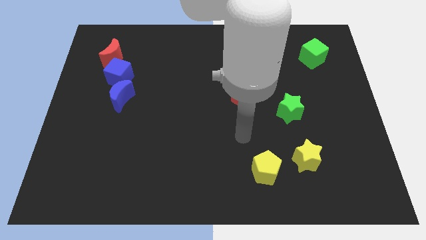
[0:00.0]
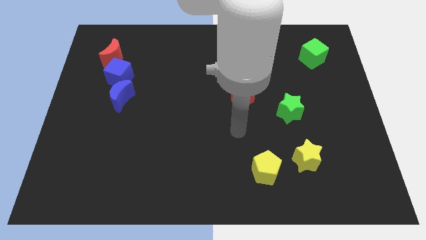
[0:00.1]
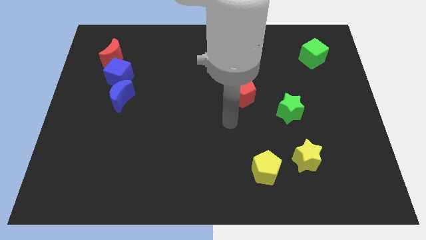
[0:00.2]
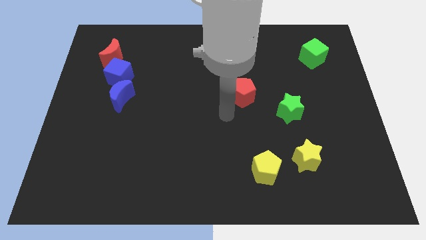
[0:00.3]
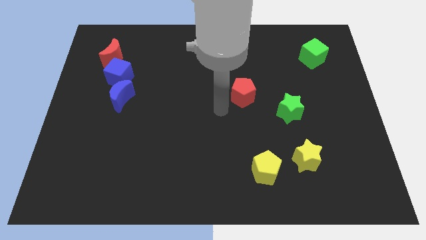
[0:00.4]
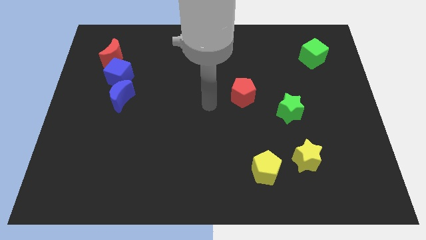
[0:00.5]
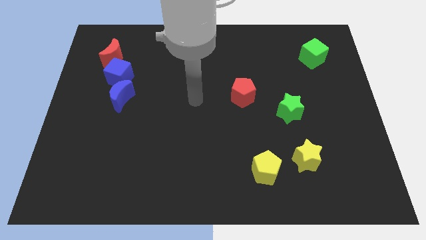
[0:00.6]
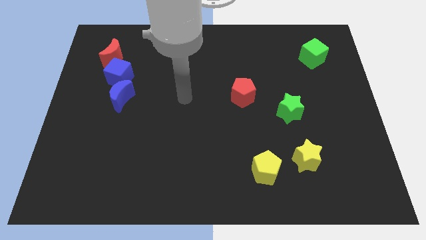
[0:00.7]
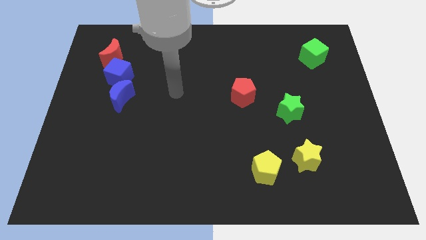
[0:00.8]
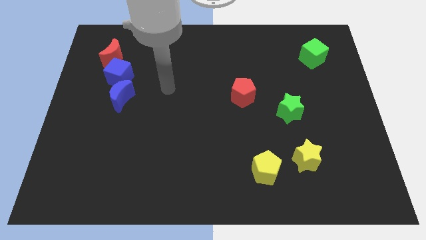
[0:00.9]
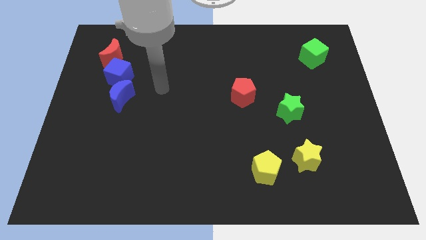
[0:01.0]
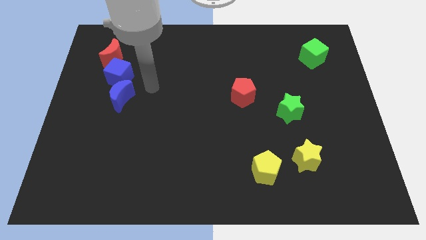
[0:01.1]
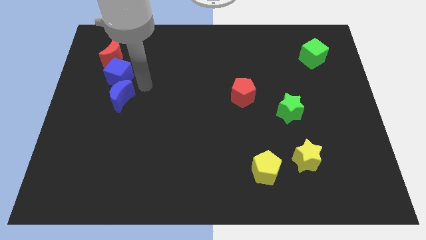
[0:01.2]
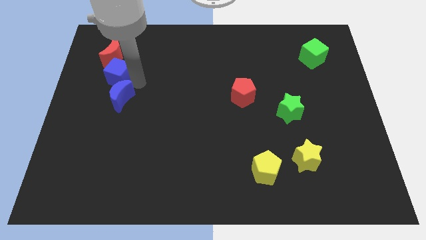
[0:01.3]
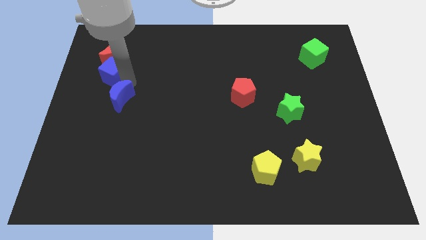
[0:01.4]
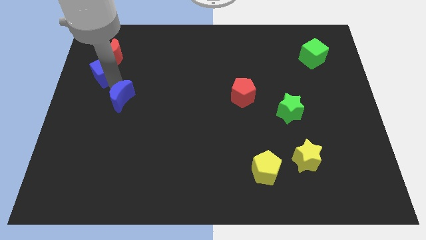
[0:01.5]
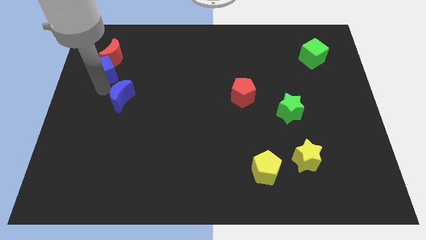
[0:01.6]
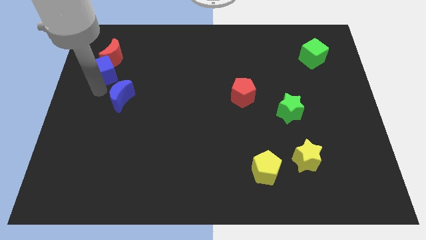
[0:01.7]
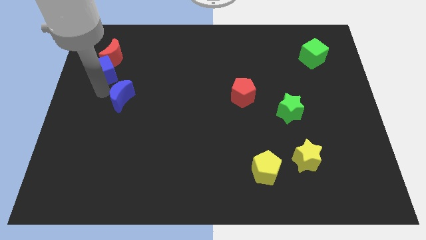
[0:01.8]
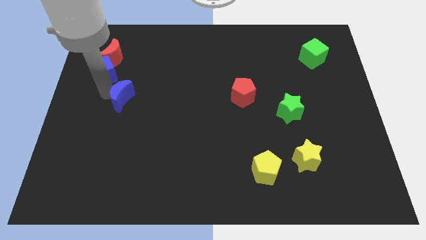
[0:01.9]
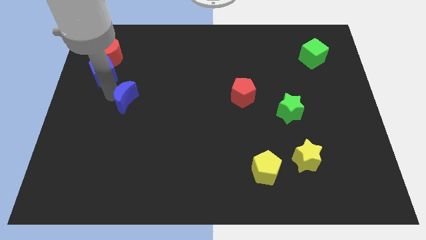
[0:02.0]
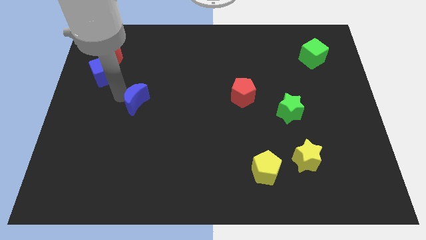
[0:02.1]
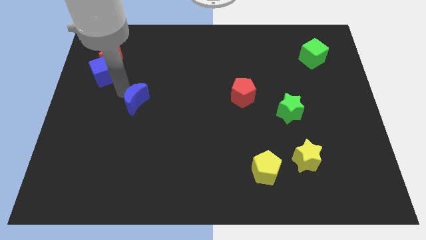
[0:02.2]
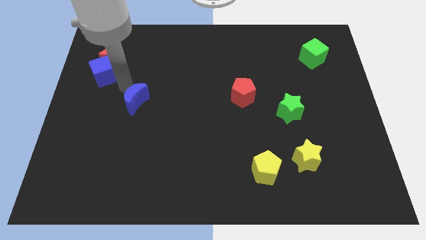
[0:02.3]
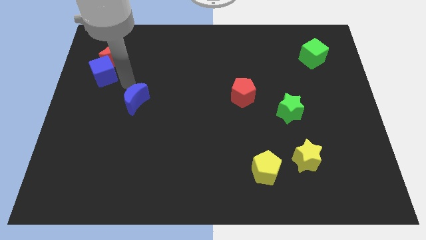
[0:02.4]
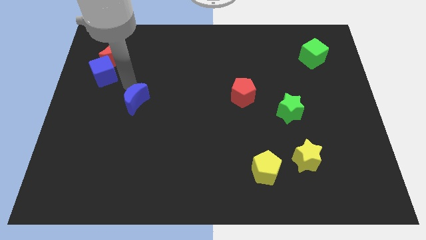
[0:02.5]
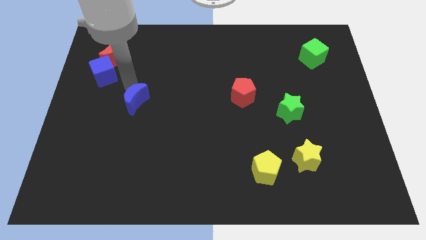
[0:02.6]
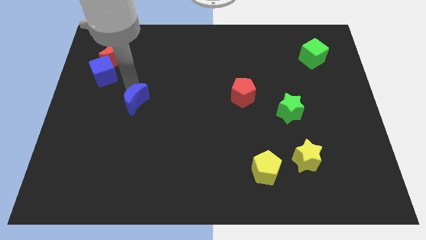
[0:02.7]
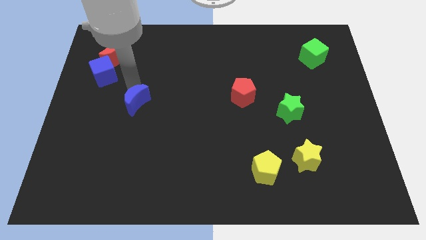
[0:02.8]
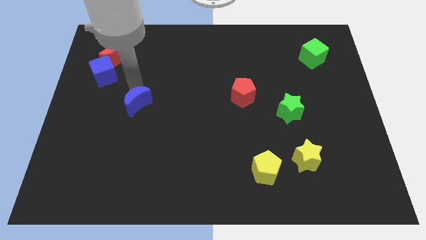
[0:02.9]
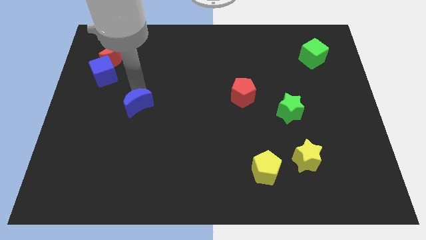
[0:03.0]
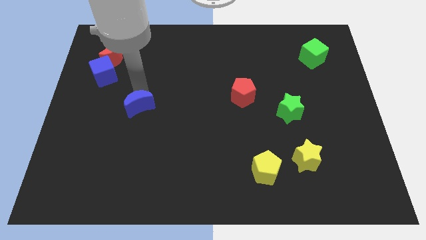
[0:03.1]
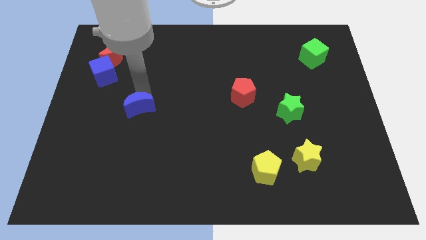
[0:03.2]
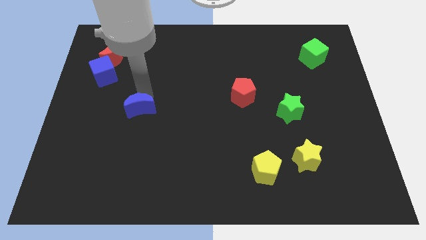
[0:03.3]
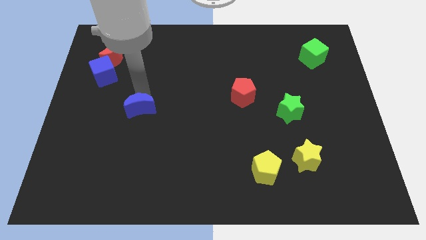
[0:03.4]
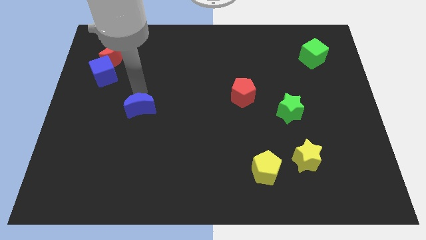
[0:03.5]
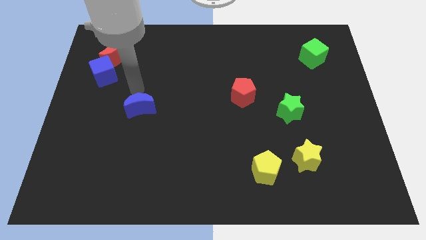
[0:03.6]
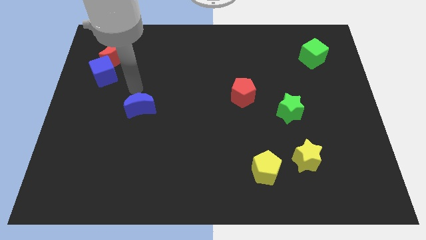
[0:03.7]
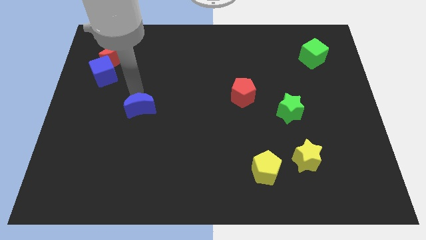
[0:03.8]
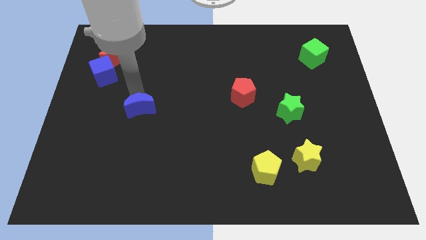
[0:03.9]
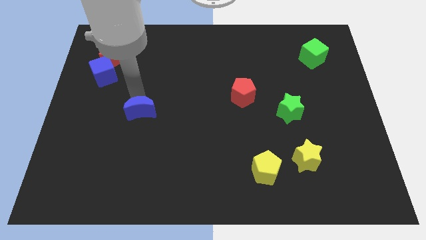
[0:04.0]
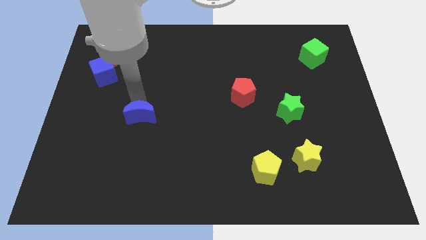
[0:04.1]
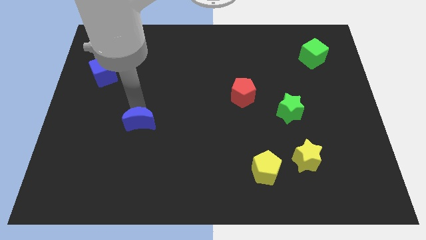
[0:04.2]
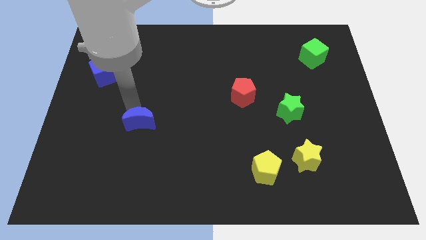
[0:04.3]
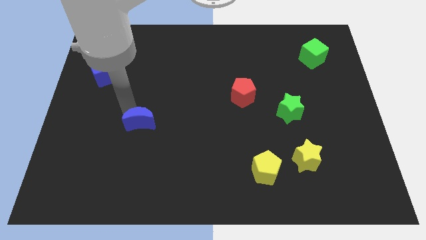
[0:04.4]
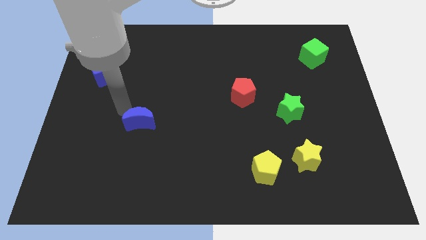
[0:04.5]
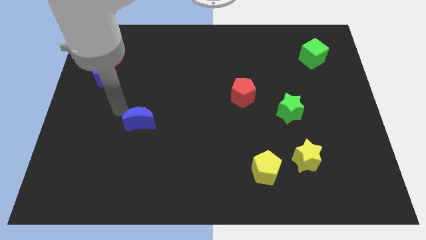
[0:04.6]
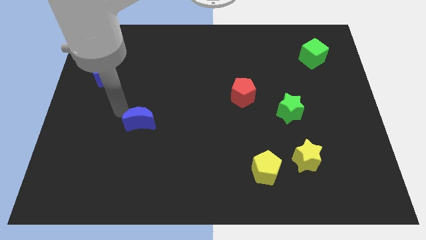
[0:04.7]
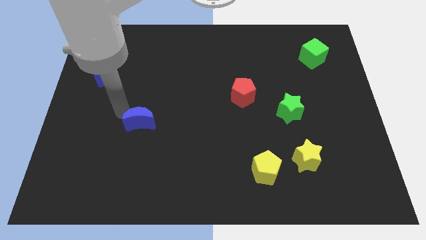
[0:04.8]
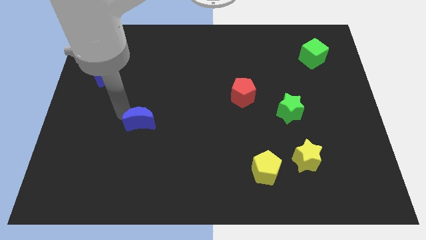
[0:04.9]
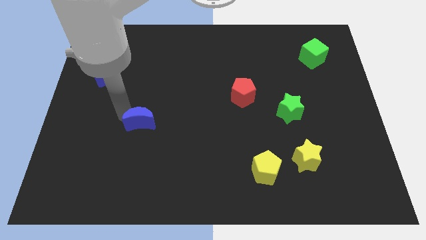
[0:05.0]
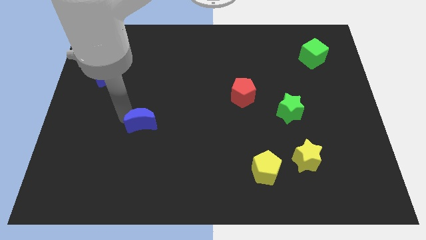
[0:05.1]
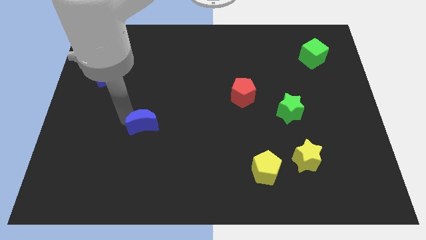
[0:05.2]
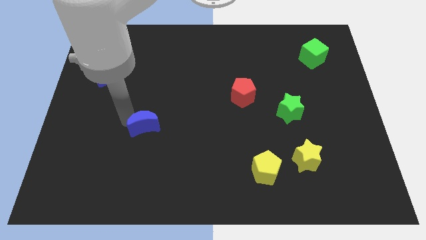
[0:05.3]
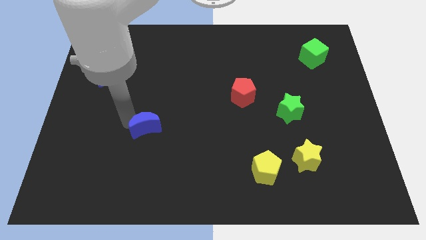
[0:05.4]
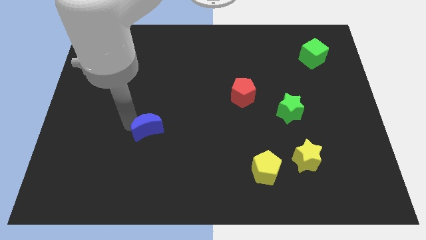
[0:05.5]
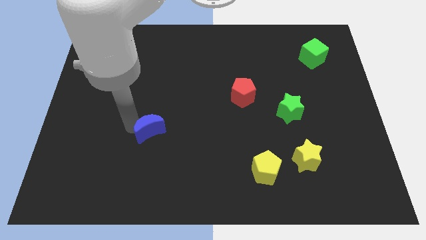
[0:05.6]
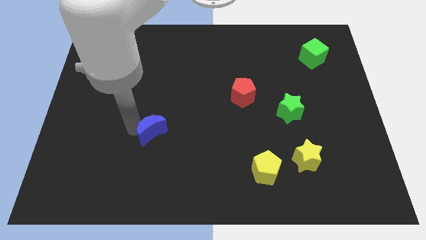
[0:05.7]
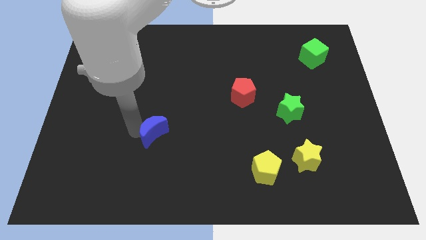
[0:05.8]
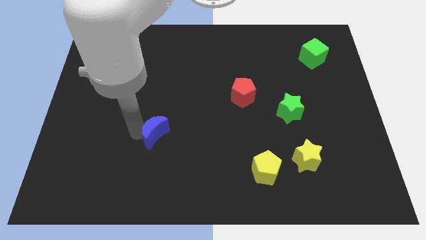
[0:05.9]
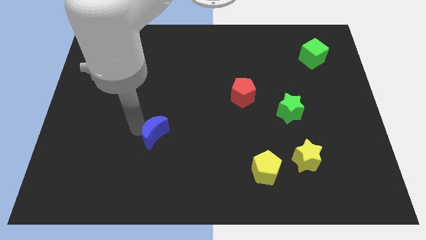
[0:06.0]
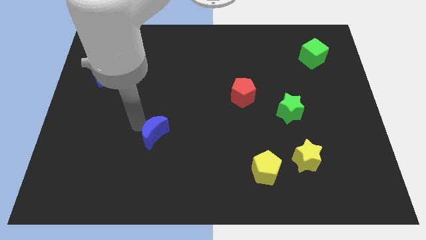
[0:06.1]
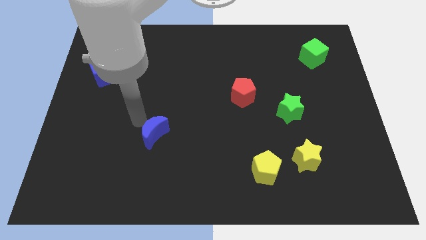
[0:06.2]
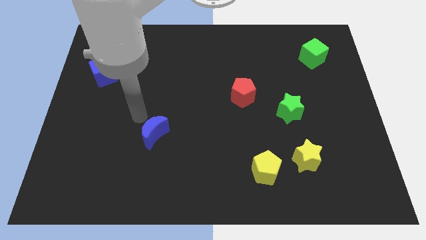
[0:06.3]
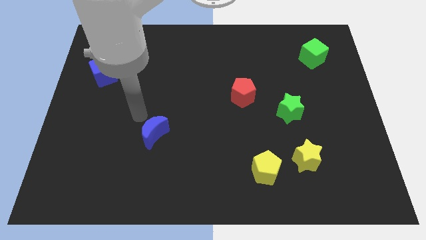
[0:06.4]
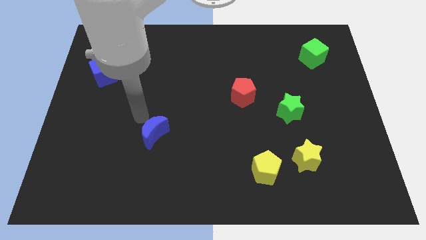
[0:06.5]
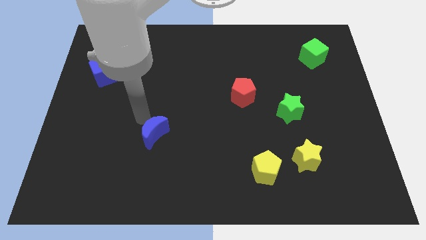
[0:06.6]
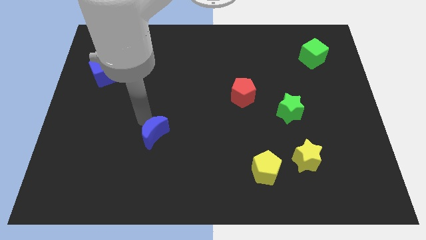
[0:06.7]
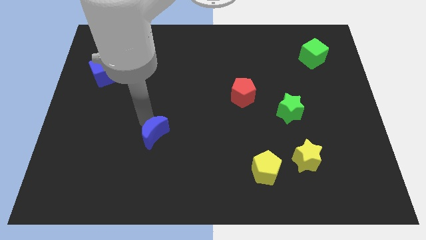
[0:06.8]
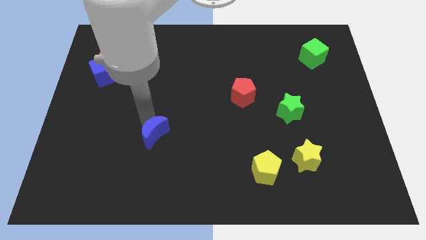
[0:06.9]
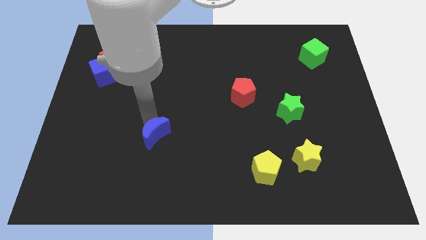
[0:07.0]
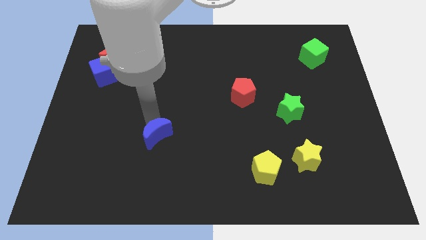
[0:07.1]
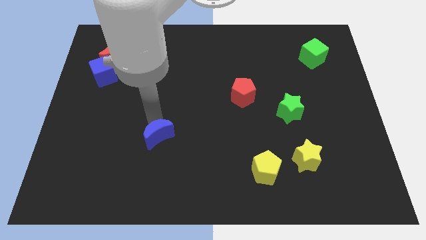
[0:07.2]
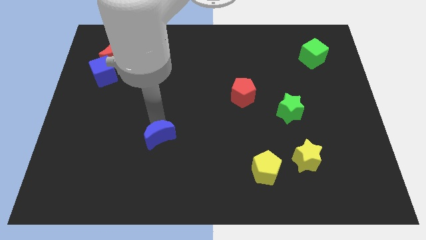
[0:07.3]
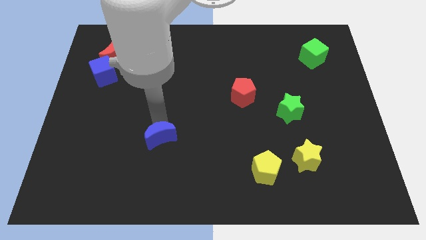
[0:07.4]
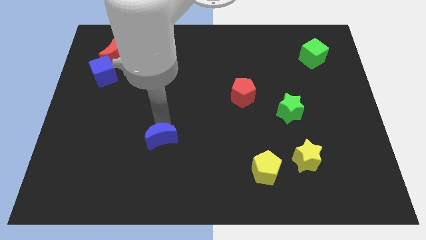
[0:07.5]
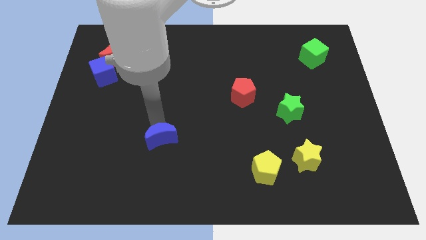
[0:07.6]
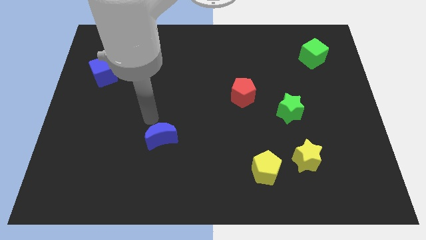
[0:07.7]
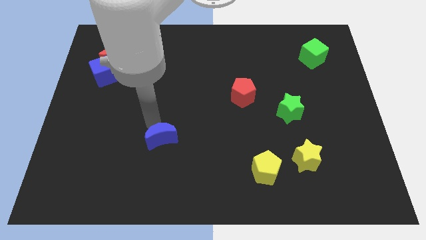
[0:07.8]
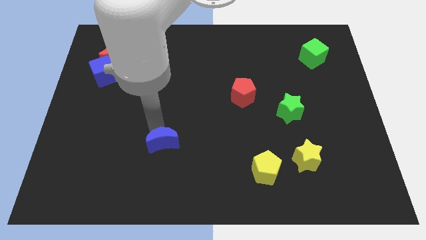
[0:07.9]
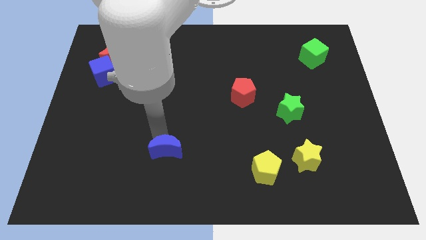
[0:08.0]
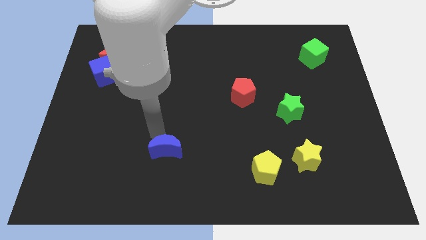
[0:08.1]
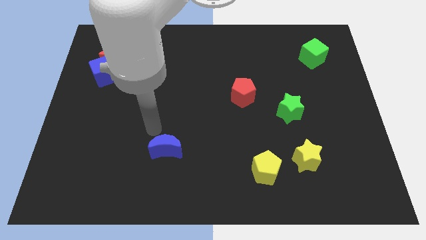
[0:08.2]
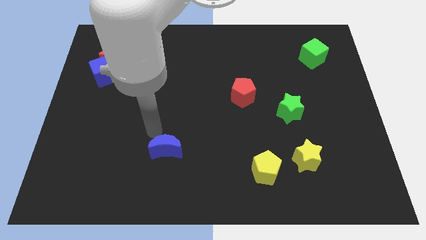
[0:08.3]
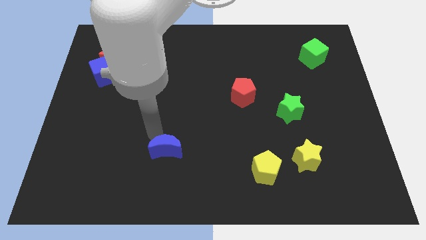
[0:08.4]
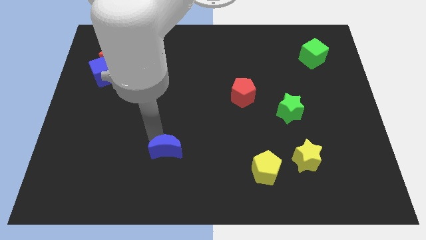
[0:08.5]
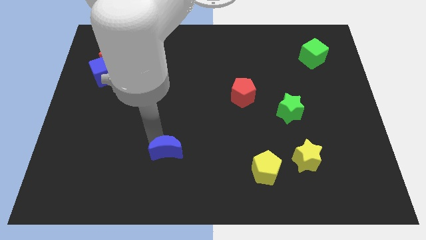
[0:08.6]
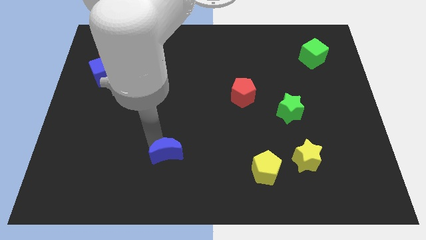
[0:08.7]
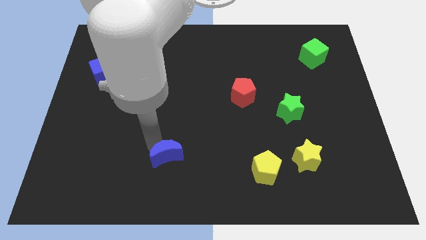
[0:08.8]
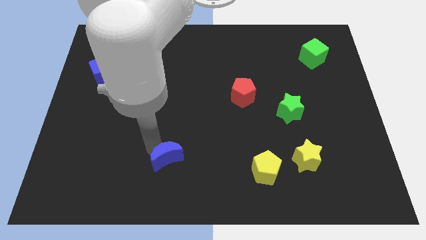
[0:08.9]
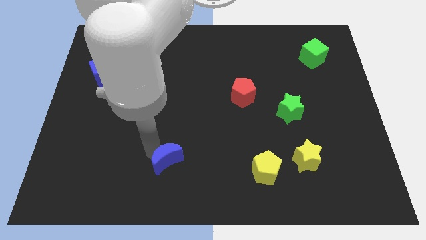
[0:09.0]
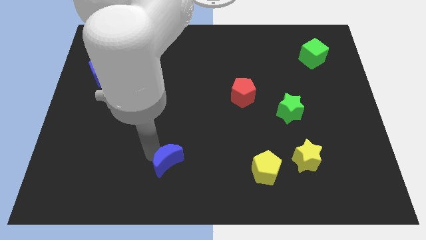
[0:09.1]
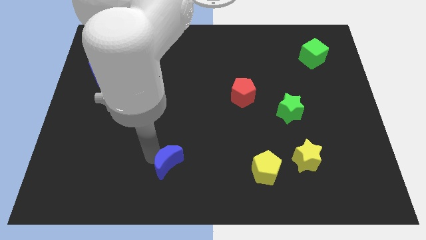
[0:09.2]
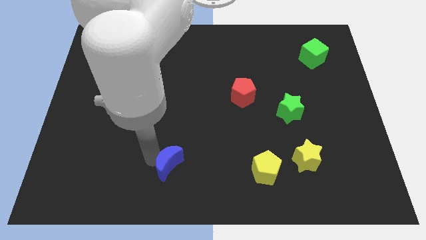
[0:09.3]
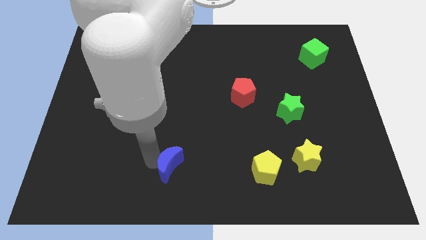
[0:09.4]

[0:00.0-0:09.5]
move the blue moon to the bottom
